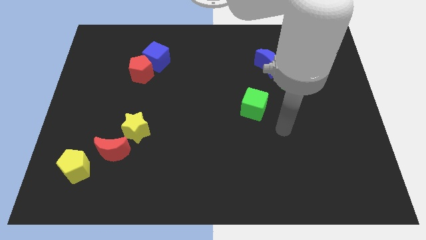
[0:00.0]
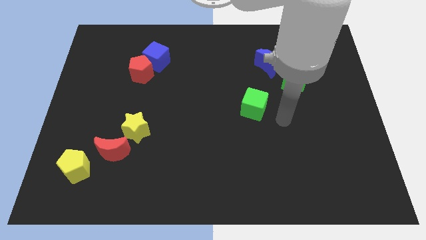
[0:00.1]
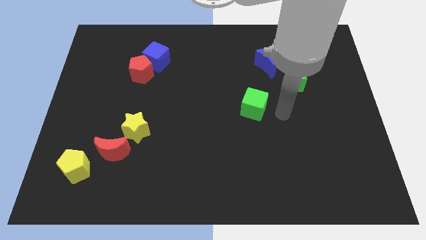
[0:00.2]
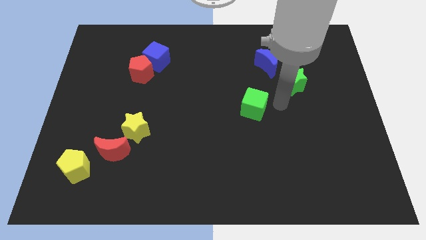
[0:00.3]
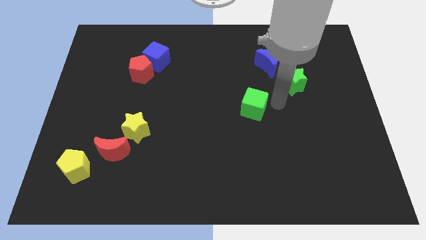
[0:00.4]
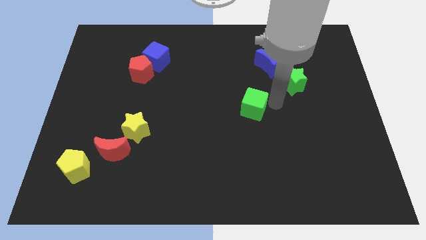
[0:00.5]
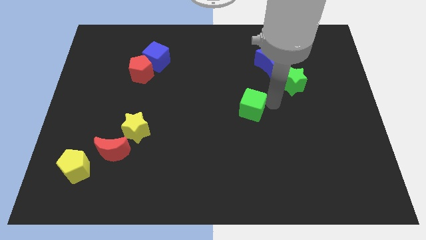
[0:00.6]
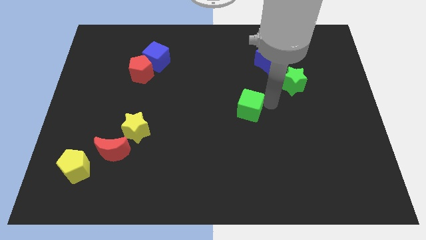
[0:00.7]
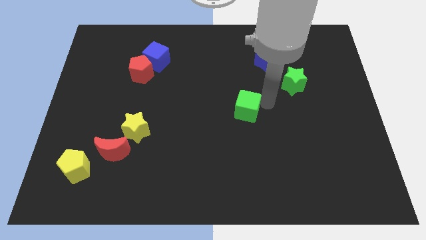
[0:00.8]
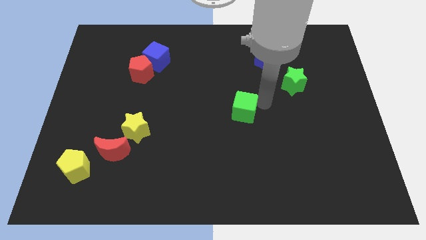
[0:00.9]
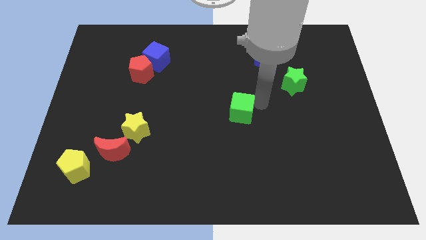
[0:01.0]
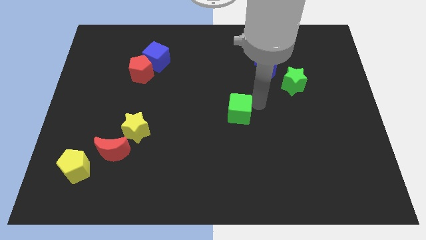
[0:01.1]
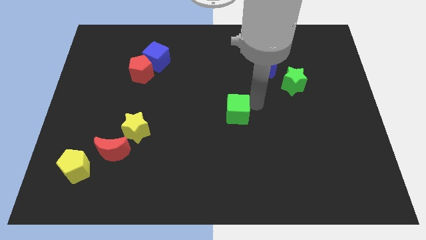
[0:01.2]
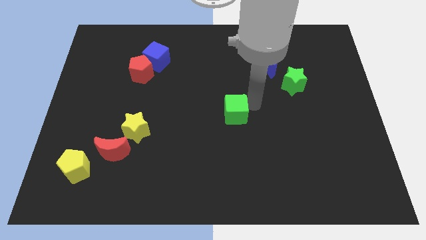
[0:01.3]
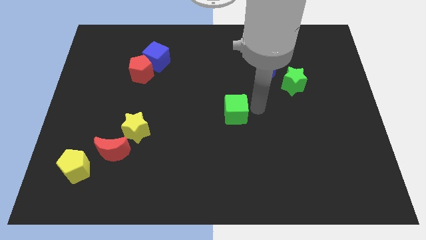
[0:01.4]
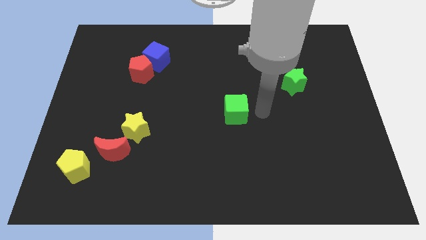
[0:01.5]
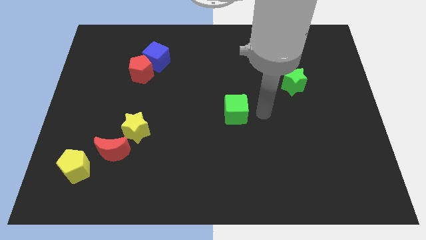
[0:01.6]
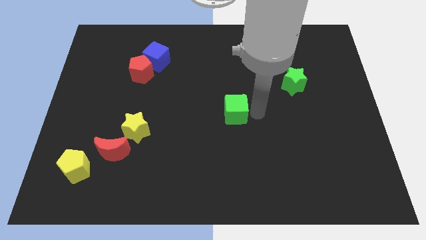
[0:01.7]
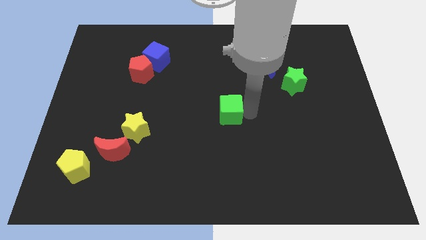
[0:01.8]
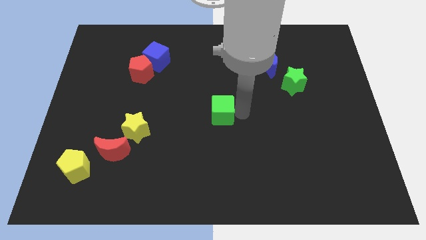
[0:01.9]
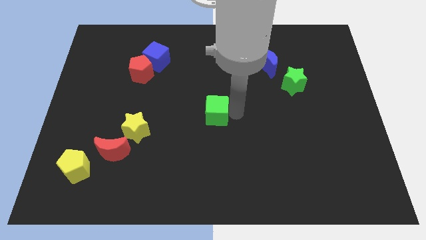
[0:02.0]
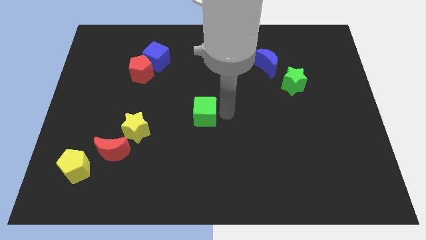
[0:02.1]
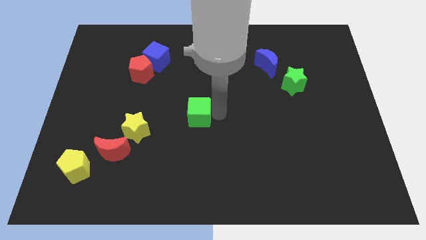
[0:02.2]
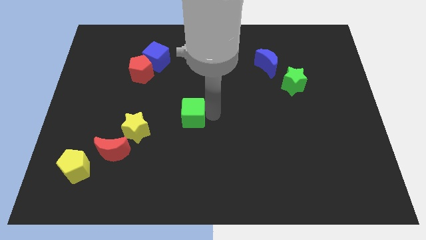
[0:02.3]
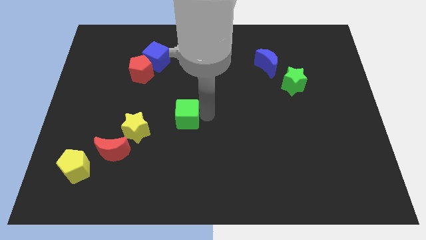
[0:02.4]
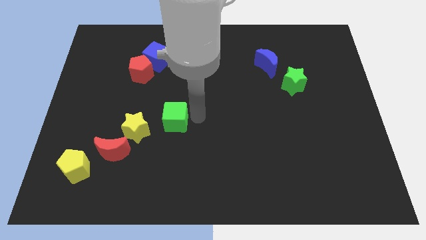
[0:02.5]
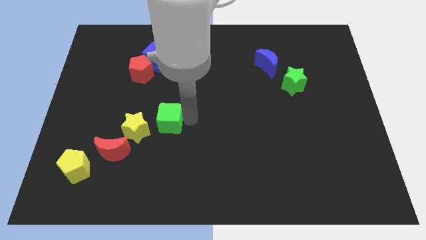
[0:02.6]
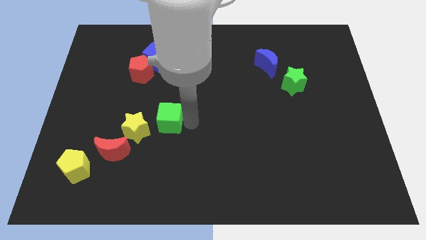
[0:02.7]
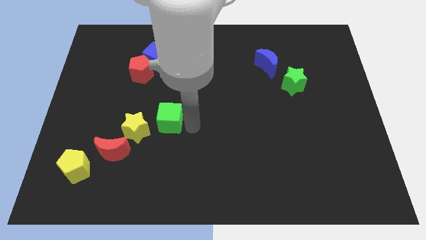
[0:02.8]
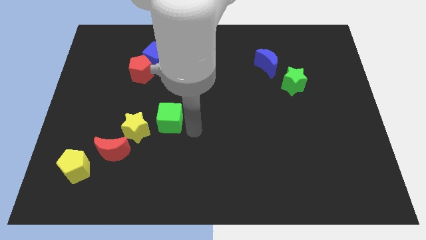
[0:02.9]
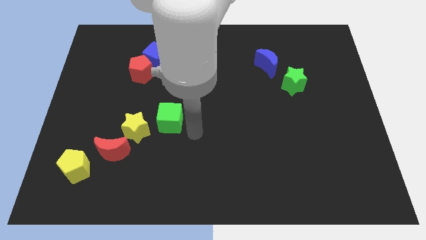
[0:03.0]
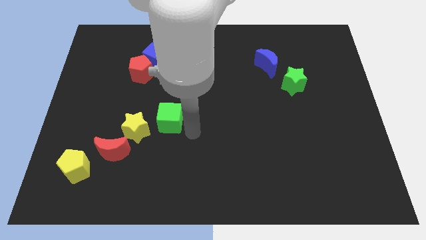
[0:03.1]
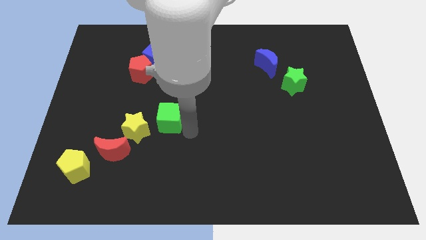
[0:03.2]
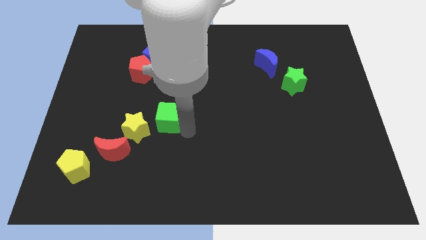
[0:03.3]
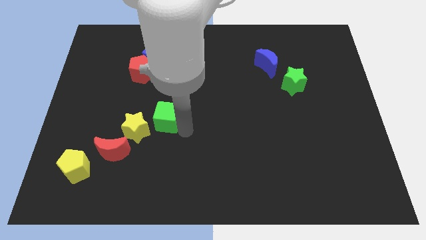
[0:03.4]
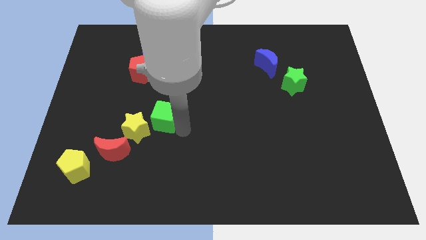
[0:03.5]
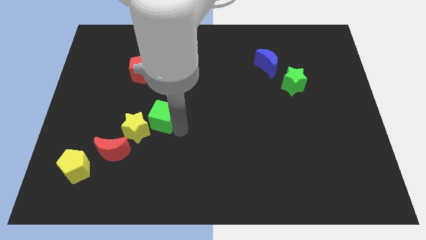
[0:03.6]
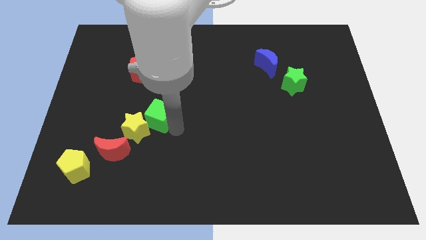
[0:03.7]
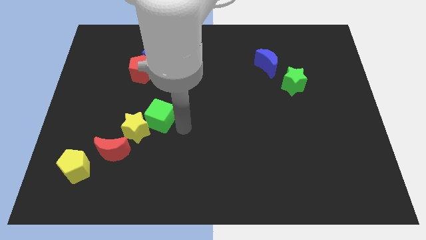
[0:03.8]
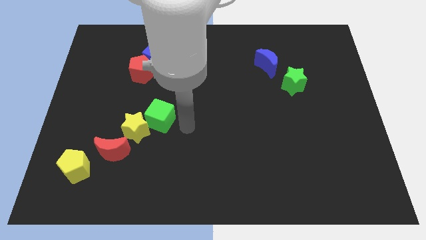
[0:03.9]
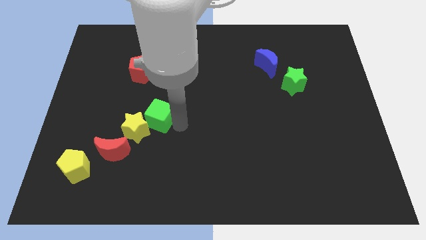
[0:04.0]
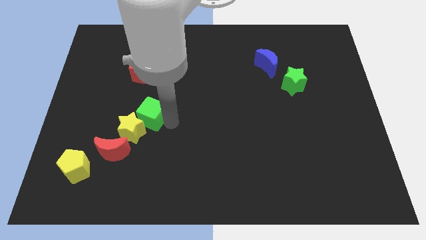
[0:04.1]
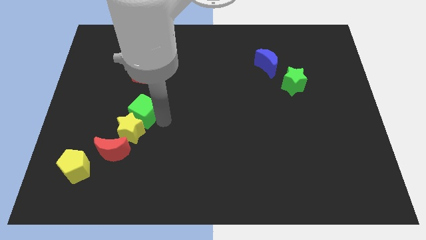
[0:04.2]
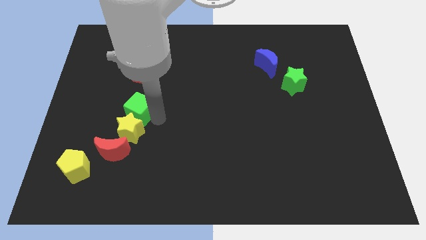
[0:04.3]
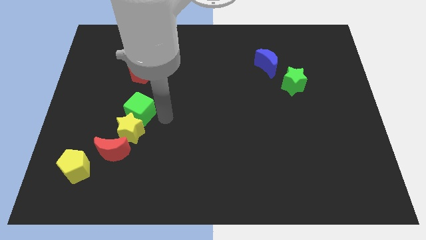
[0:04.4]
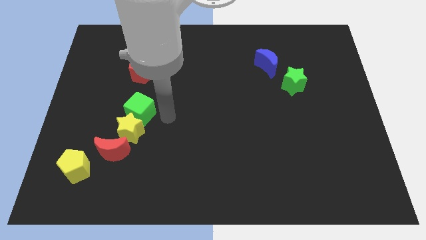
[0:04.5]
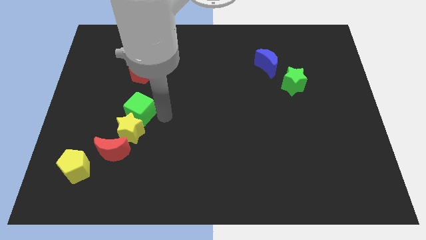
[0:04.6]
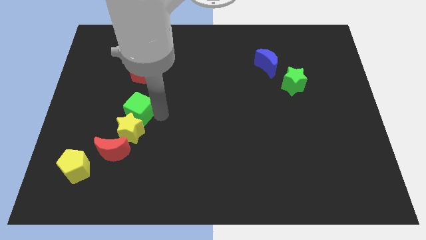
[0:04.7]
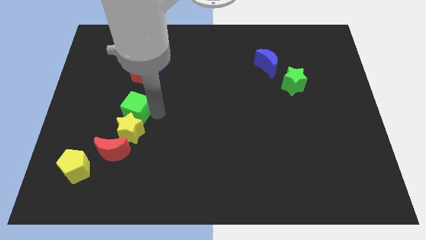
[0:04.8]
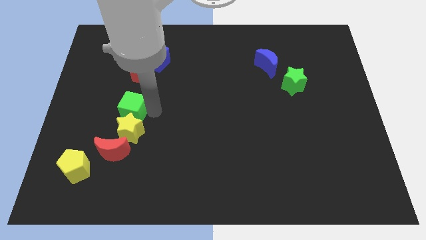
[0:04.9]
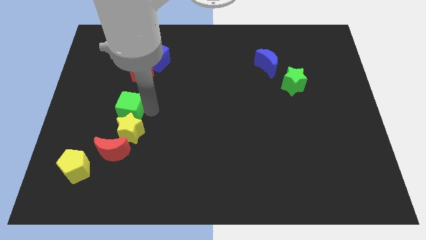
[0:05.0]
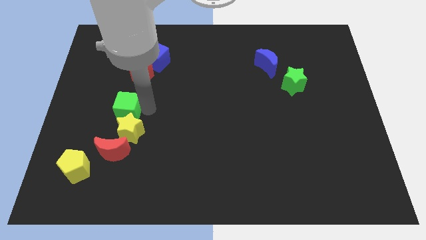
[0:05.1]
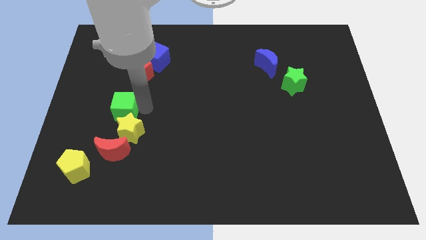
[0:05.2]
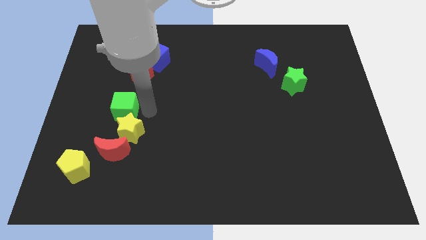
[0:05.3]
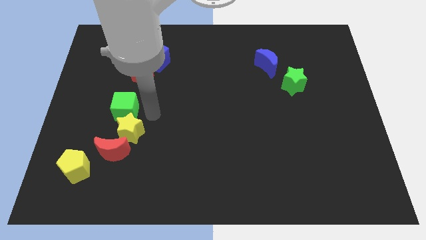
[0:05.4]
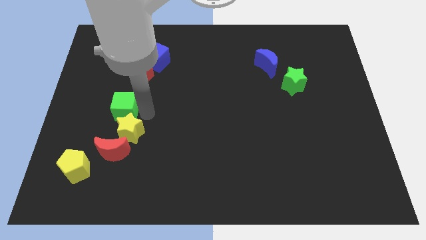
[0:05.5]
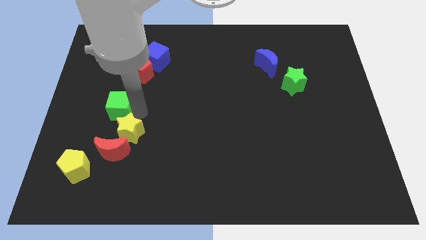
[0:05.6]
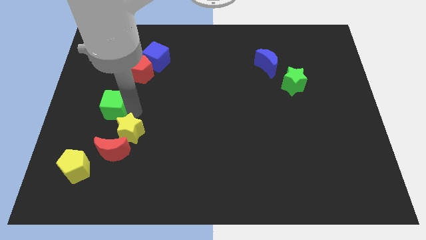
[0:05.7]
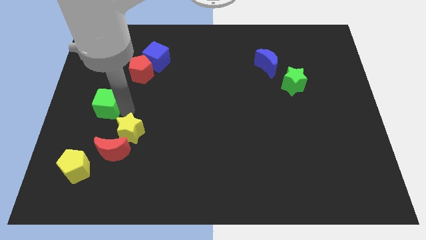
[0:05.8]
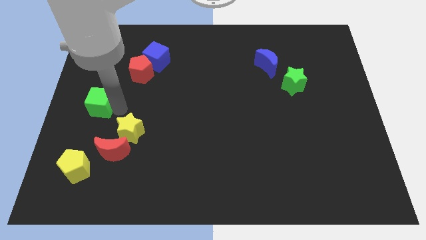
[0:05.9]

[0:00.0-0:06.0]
push the green cube to the left side

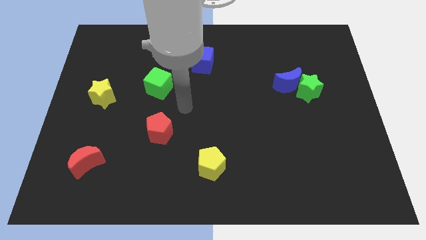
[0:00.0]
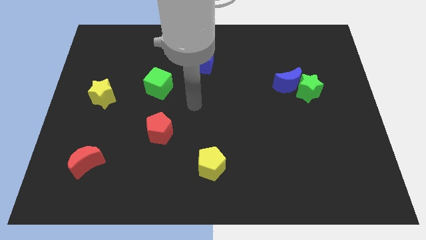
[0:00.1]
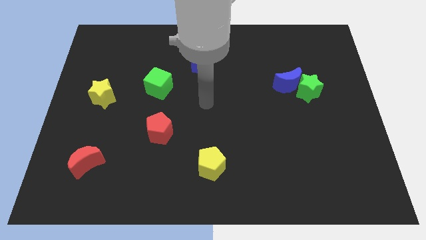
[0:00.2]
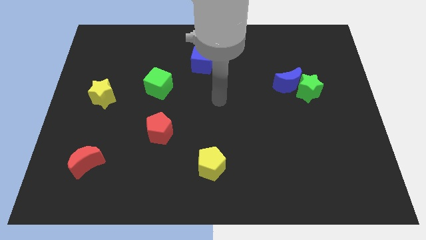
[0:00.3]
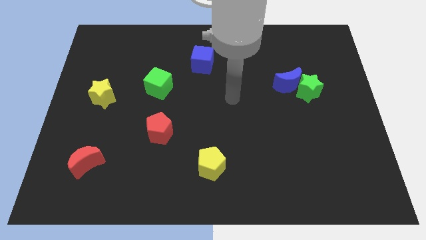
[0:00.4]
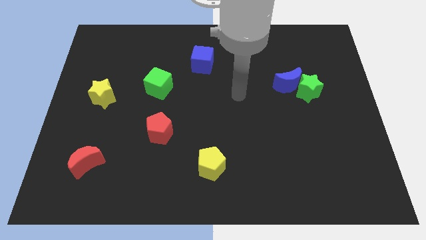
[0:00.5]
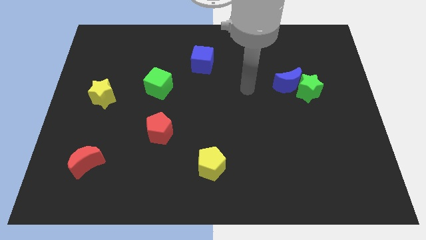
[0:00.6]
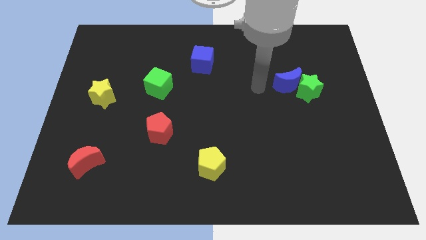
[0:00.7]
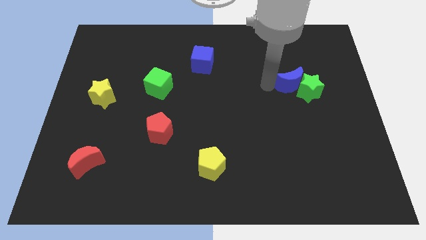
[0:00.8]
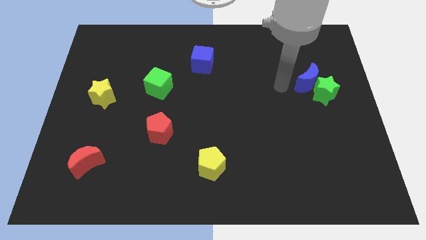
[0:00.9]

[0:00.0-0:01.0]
move the green star to the right side of the board
